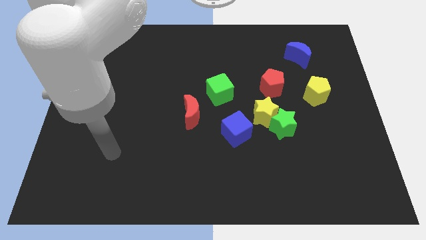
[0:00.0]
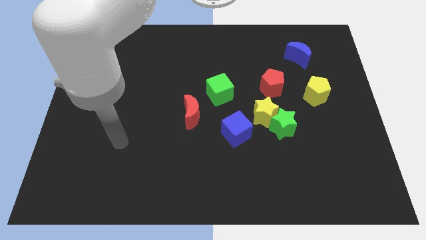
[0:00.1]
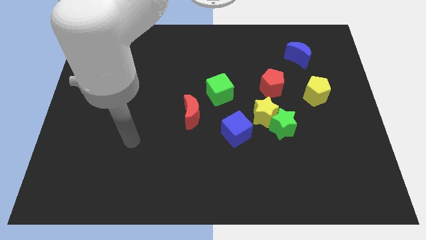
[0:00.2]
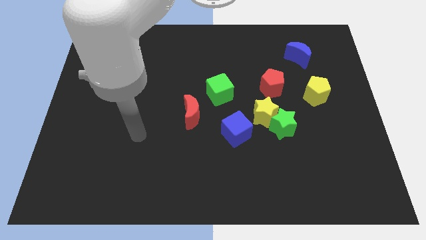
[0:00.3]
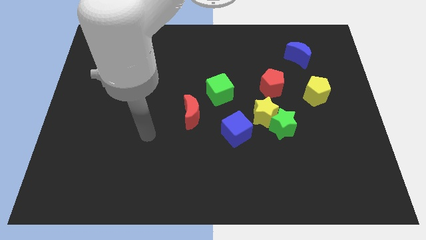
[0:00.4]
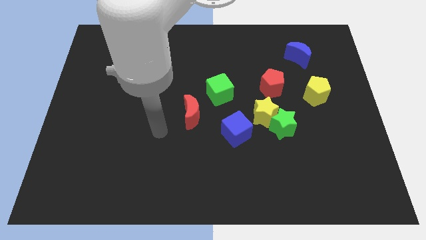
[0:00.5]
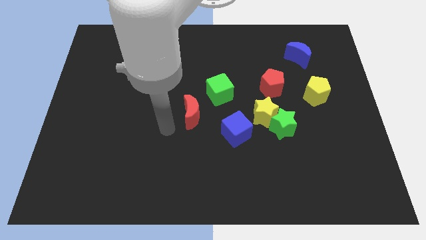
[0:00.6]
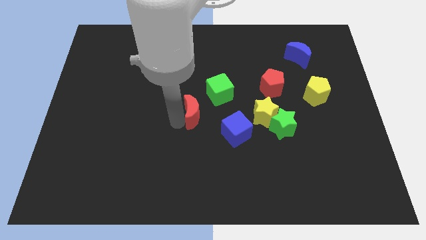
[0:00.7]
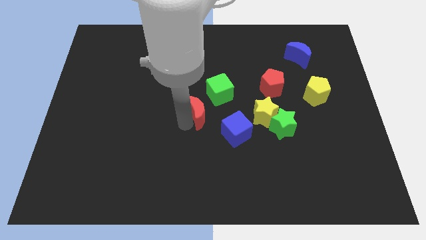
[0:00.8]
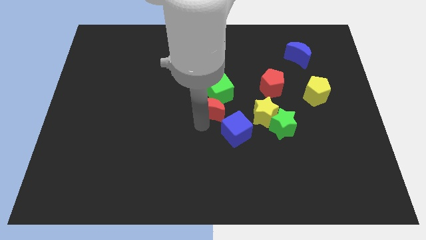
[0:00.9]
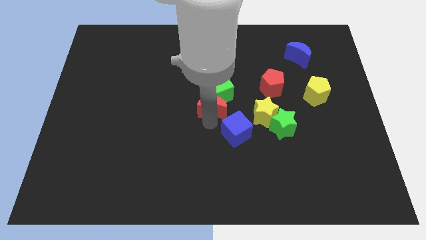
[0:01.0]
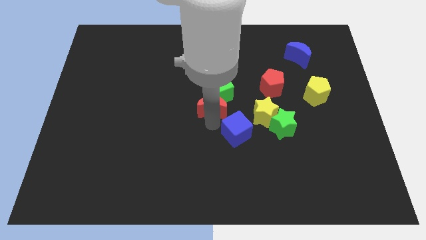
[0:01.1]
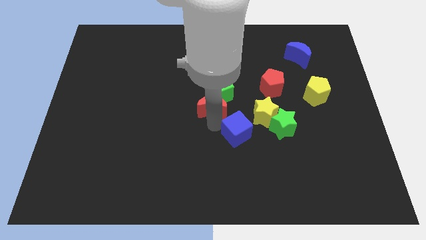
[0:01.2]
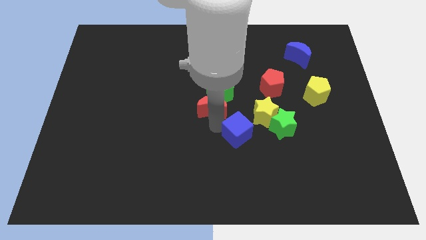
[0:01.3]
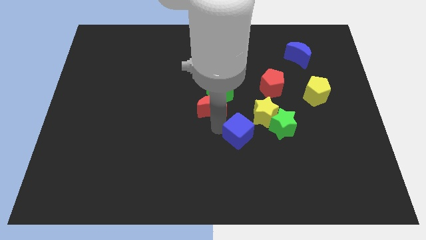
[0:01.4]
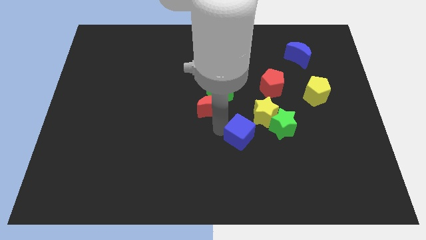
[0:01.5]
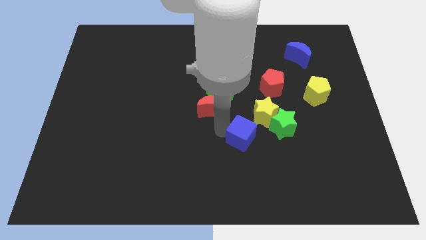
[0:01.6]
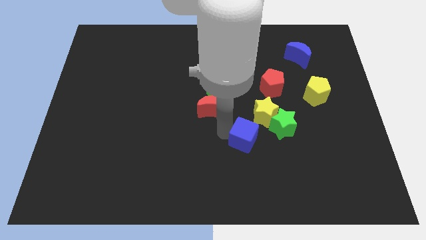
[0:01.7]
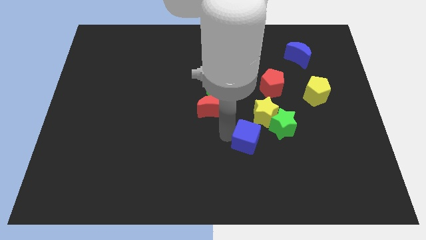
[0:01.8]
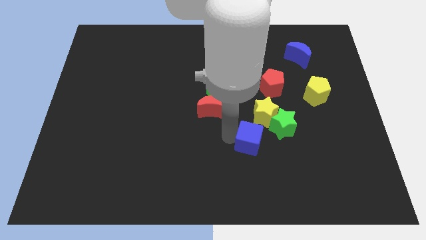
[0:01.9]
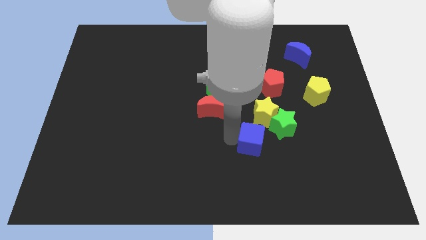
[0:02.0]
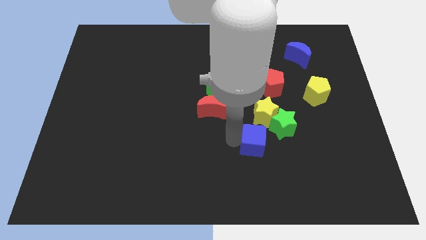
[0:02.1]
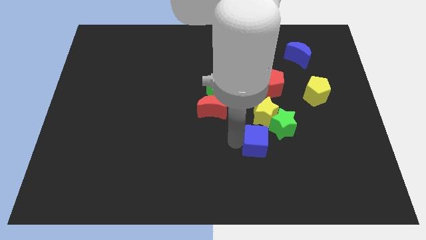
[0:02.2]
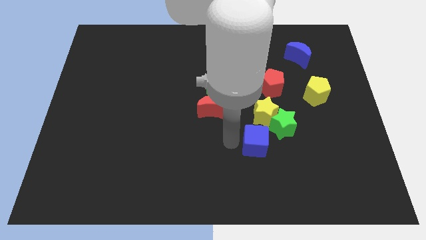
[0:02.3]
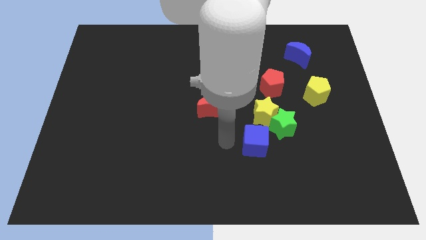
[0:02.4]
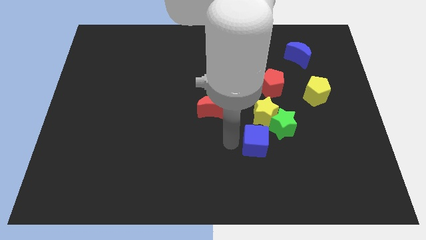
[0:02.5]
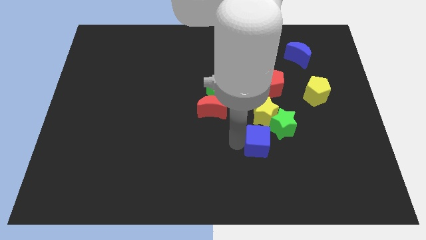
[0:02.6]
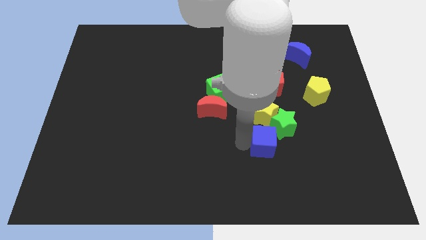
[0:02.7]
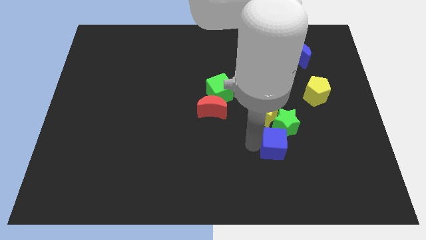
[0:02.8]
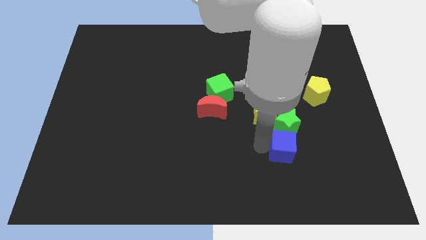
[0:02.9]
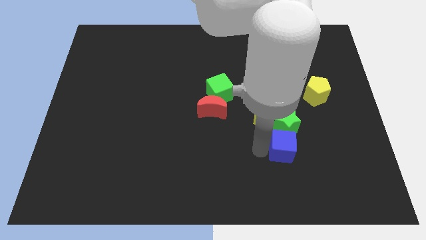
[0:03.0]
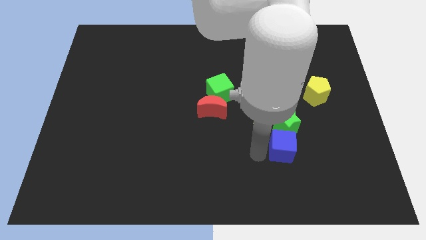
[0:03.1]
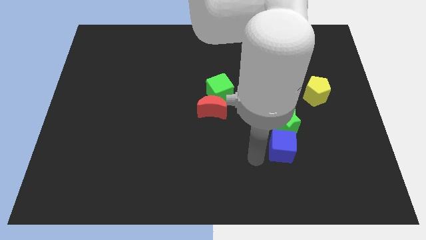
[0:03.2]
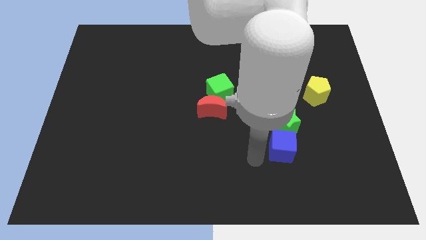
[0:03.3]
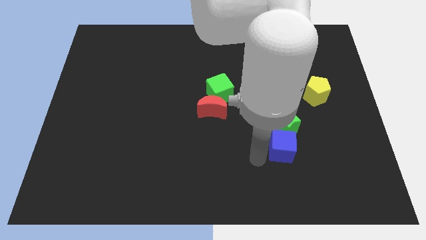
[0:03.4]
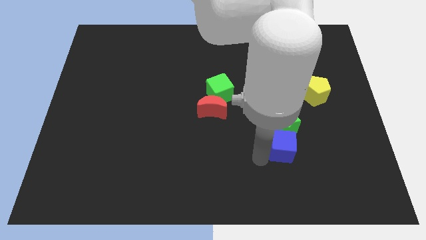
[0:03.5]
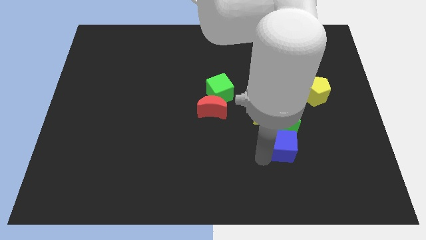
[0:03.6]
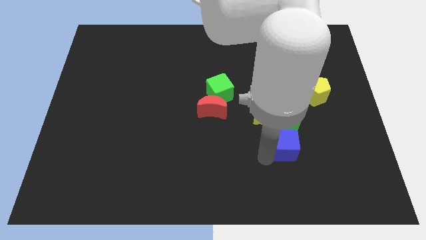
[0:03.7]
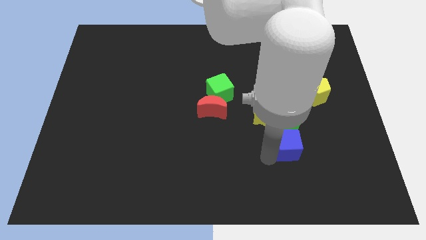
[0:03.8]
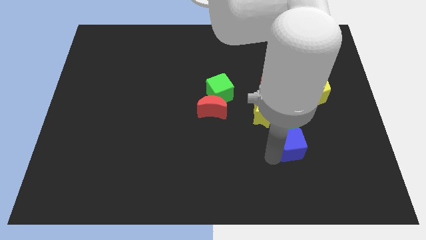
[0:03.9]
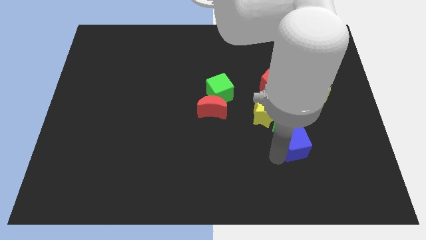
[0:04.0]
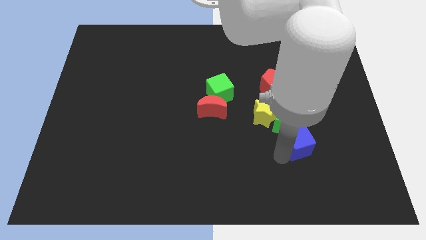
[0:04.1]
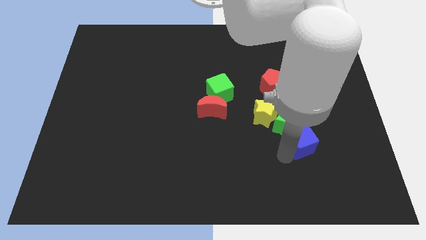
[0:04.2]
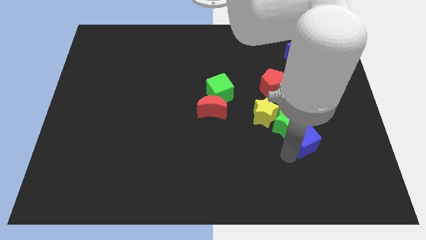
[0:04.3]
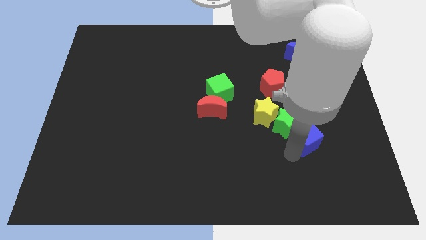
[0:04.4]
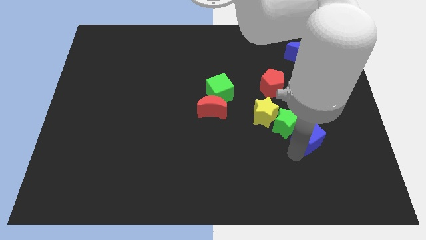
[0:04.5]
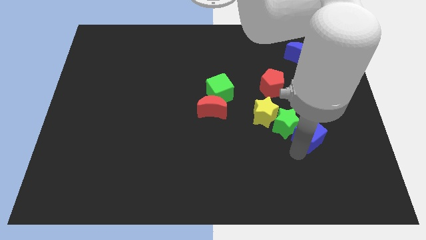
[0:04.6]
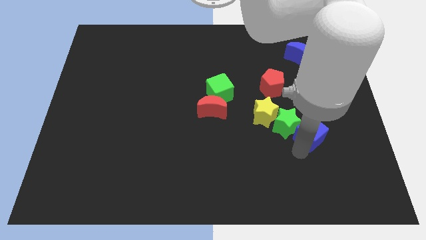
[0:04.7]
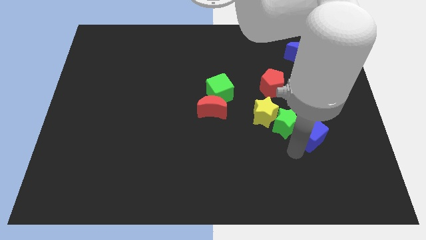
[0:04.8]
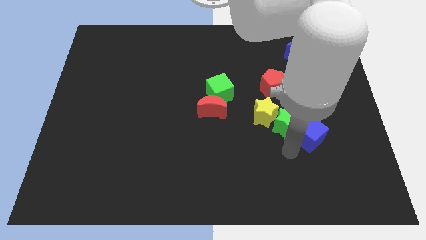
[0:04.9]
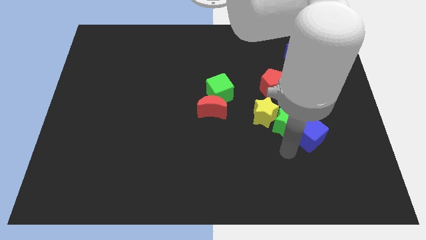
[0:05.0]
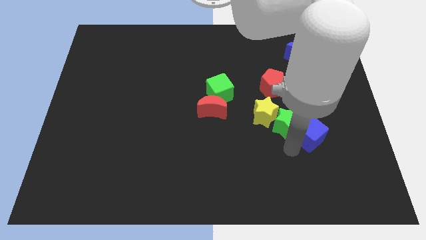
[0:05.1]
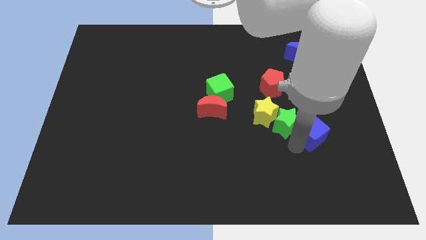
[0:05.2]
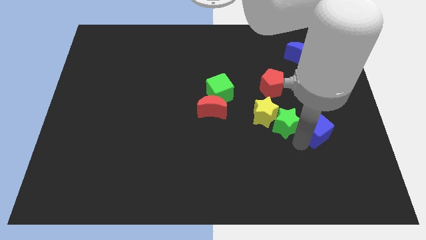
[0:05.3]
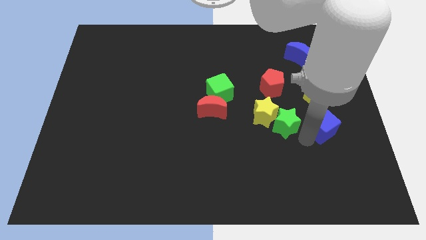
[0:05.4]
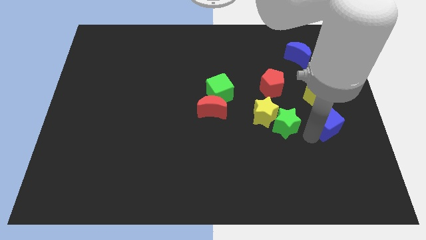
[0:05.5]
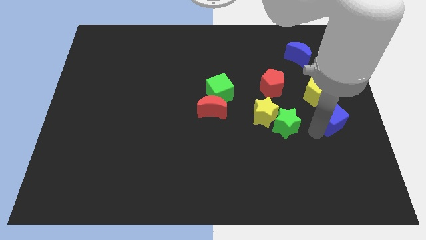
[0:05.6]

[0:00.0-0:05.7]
push the blue cube to the right side

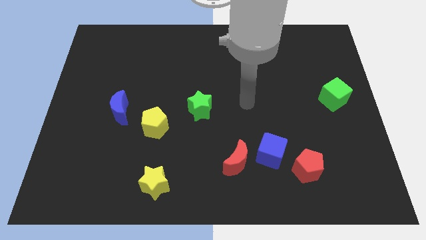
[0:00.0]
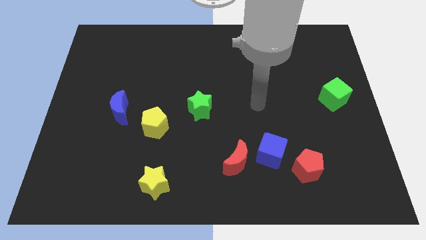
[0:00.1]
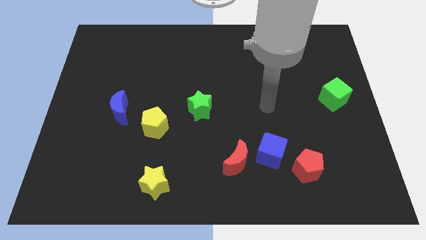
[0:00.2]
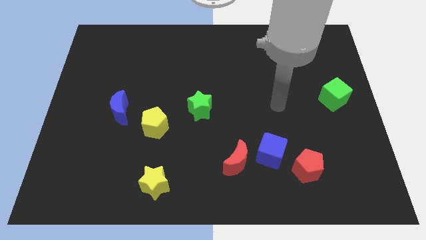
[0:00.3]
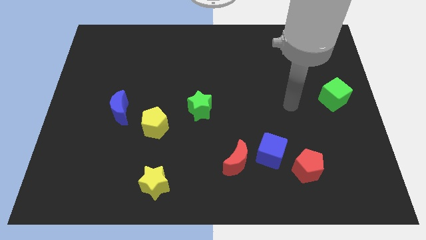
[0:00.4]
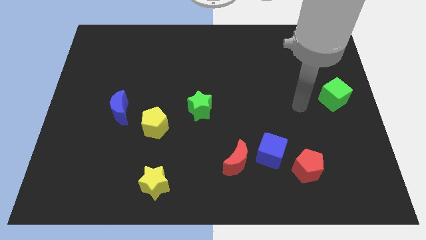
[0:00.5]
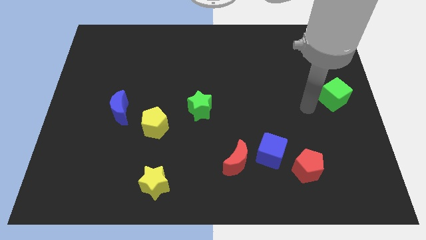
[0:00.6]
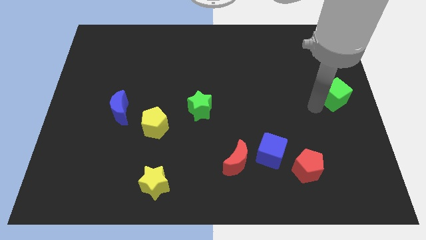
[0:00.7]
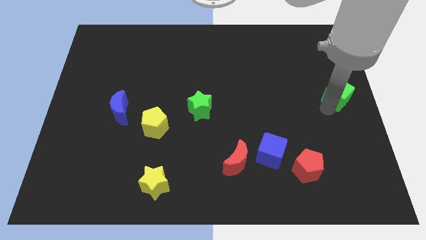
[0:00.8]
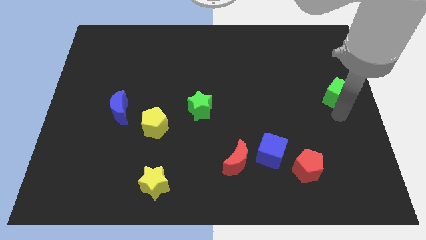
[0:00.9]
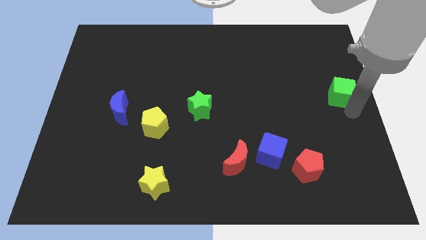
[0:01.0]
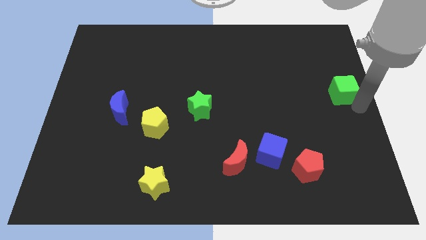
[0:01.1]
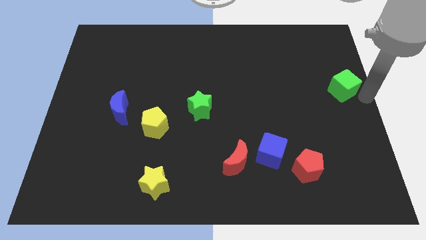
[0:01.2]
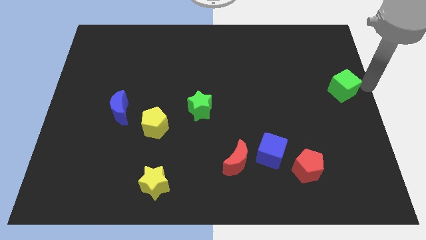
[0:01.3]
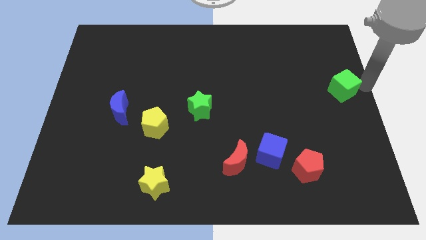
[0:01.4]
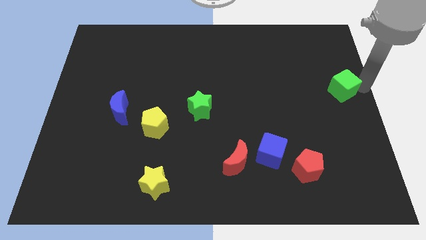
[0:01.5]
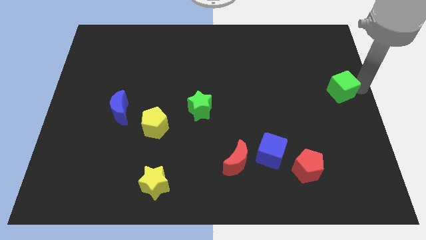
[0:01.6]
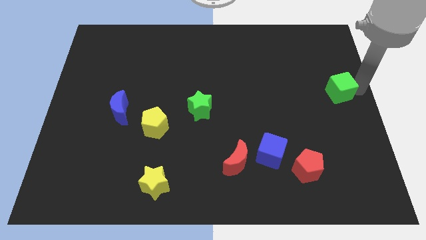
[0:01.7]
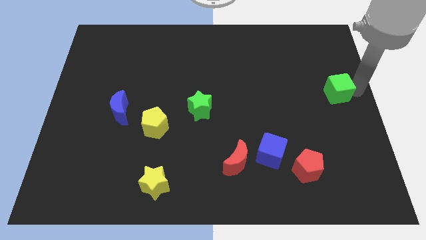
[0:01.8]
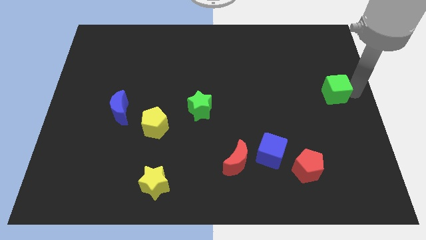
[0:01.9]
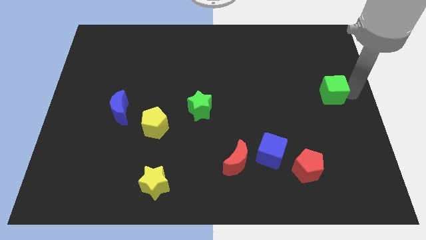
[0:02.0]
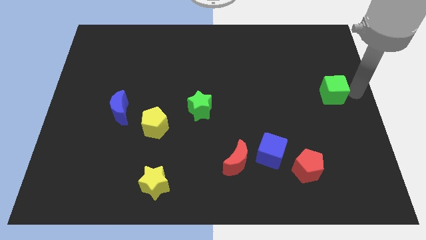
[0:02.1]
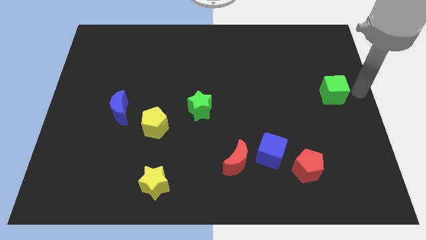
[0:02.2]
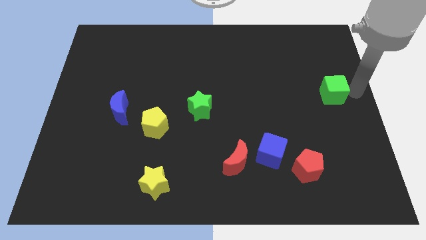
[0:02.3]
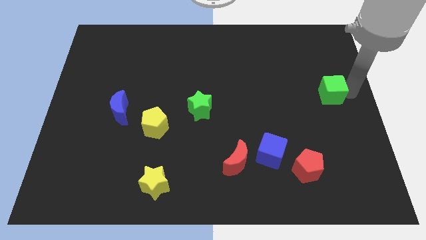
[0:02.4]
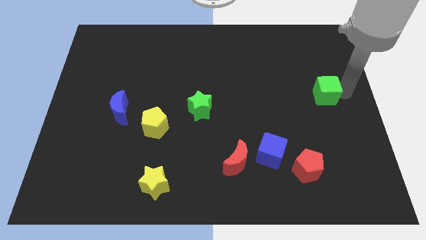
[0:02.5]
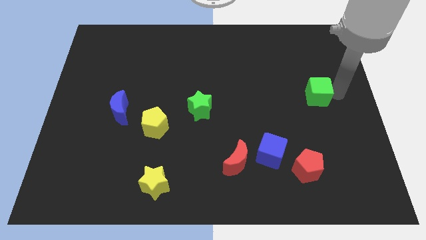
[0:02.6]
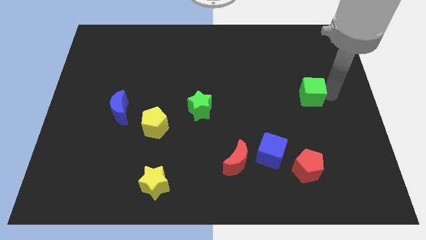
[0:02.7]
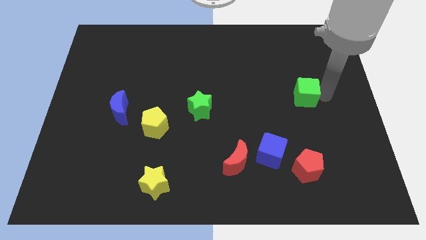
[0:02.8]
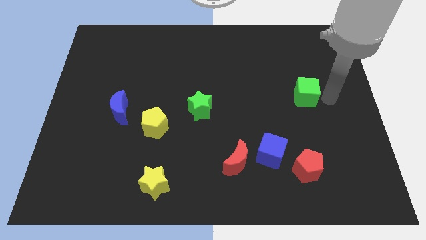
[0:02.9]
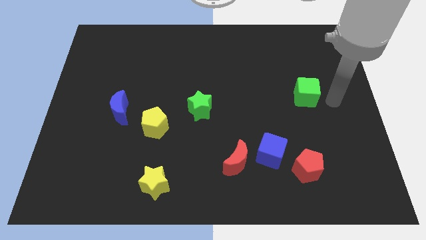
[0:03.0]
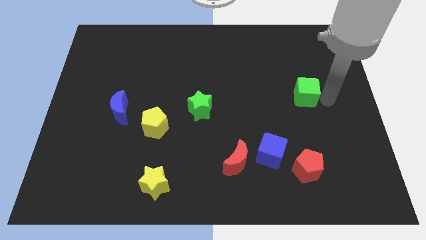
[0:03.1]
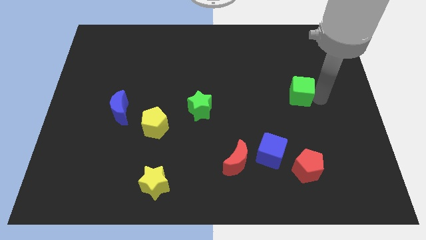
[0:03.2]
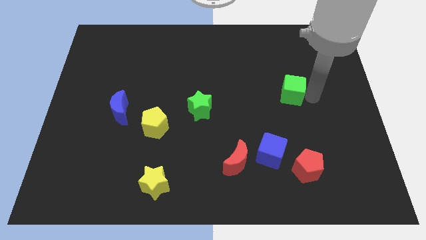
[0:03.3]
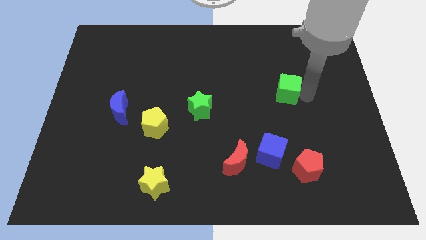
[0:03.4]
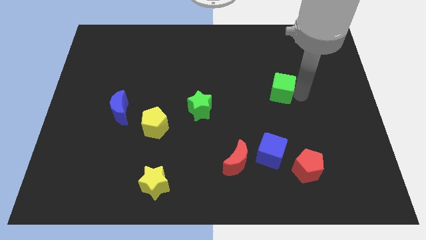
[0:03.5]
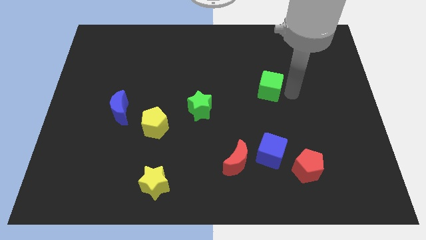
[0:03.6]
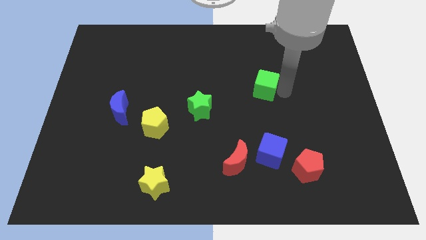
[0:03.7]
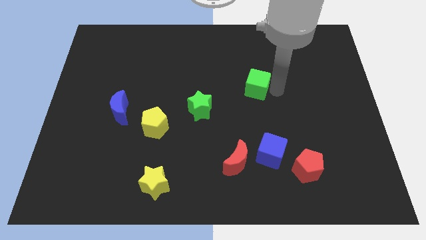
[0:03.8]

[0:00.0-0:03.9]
push the green cube to the middle of the board
